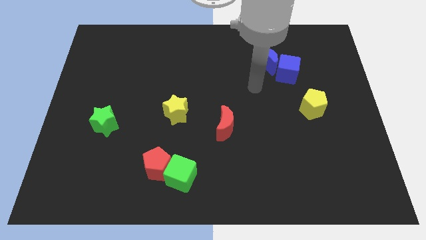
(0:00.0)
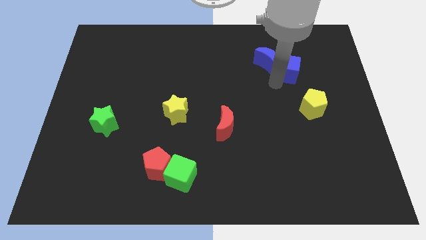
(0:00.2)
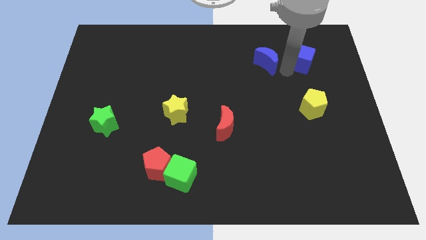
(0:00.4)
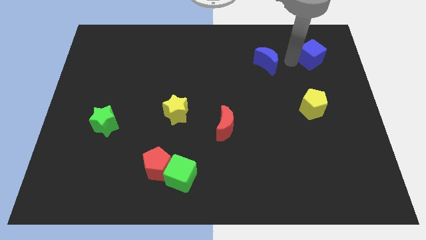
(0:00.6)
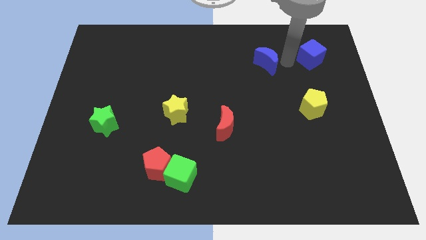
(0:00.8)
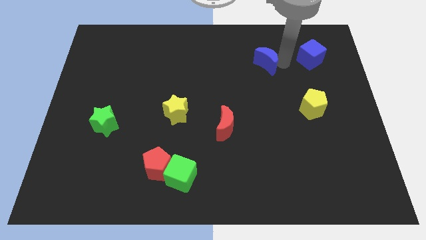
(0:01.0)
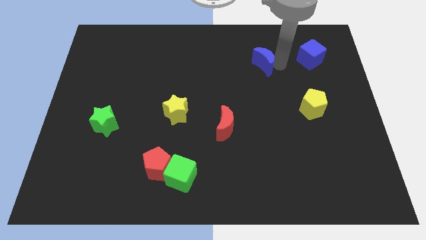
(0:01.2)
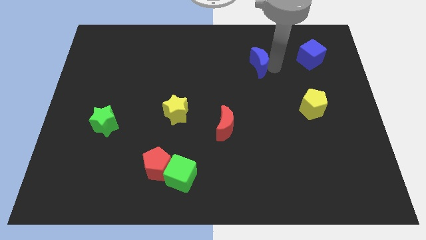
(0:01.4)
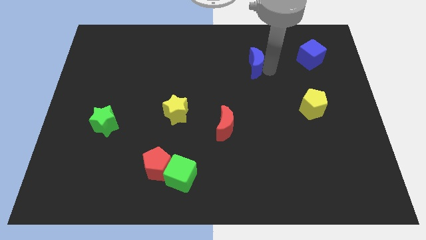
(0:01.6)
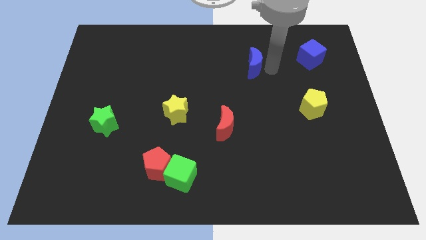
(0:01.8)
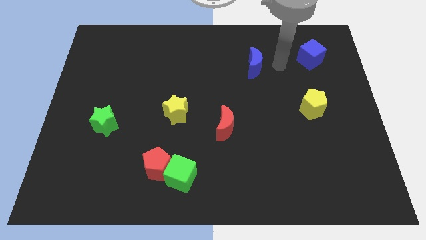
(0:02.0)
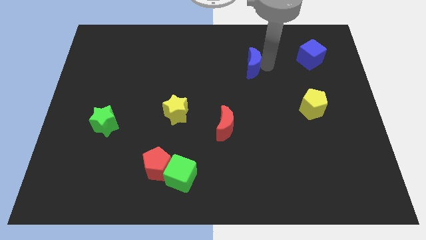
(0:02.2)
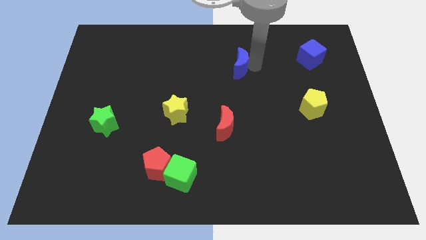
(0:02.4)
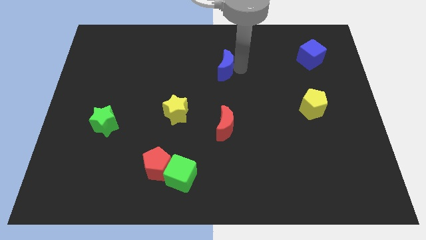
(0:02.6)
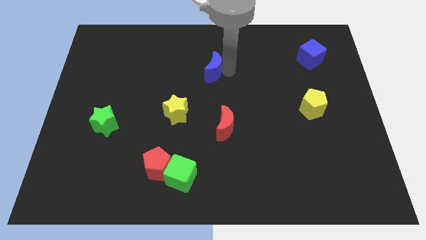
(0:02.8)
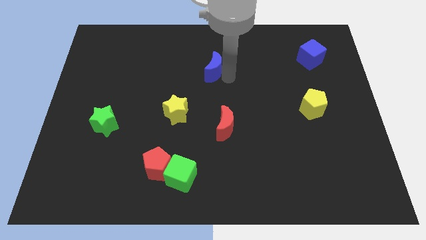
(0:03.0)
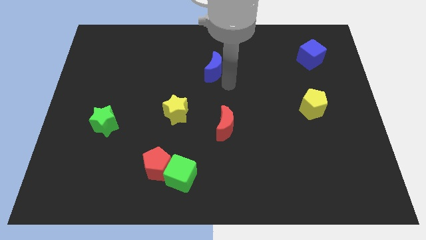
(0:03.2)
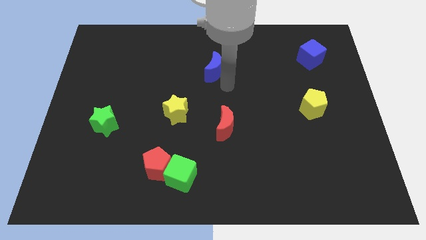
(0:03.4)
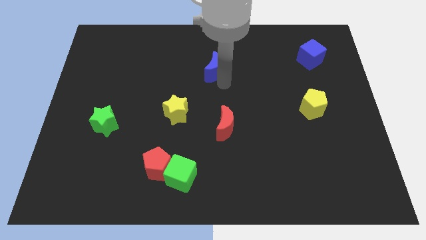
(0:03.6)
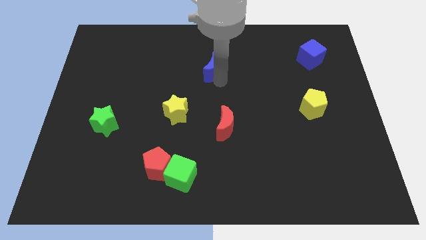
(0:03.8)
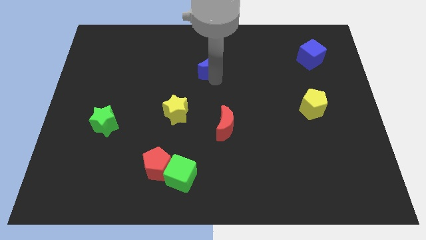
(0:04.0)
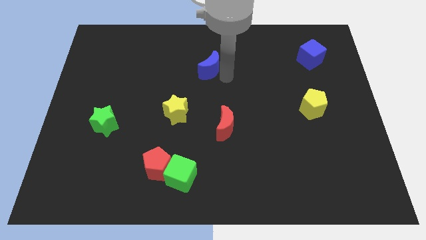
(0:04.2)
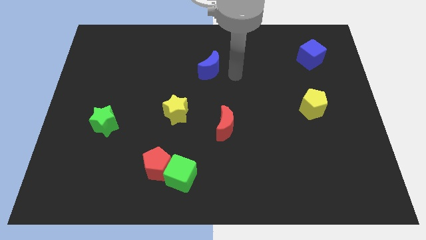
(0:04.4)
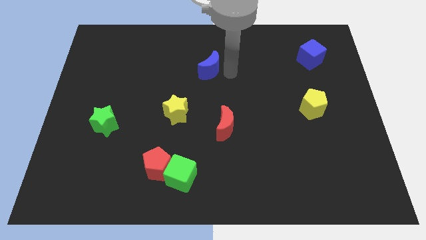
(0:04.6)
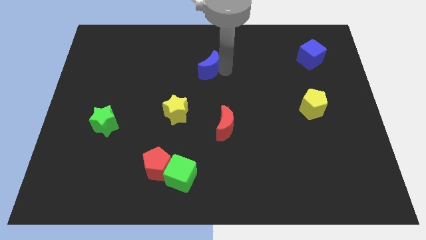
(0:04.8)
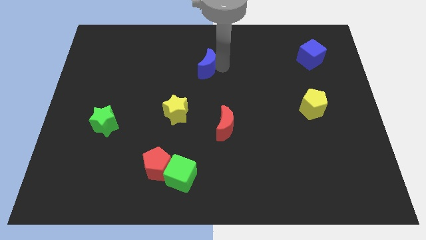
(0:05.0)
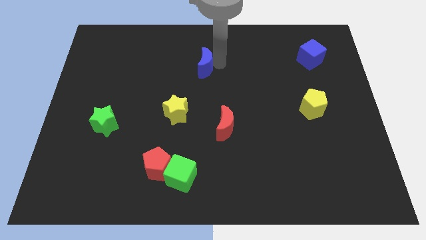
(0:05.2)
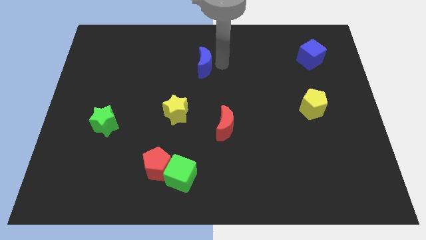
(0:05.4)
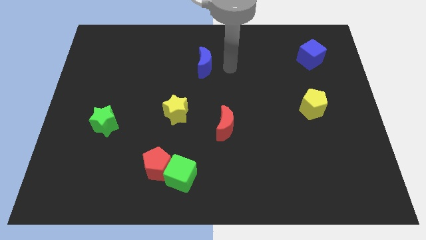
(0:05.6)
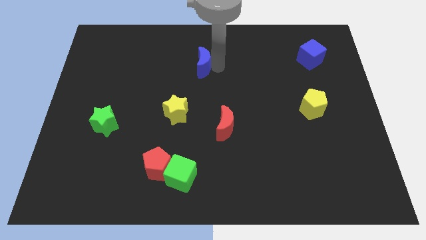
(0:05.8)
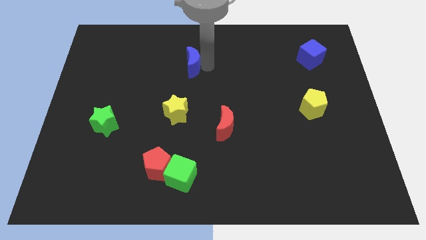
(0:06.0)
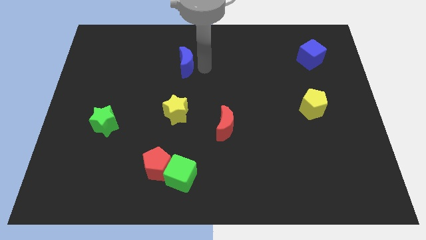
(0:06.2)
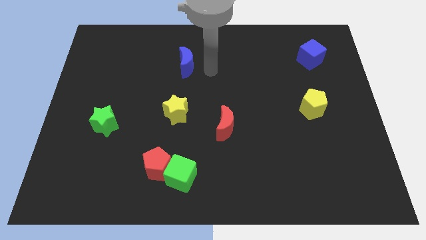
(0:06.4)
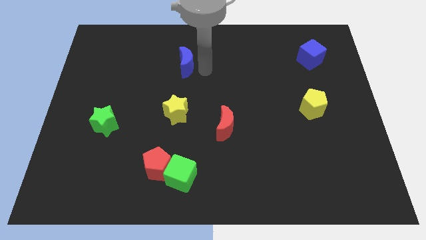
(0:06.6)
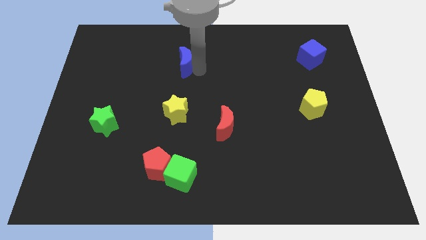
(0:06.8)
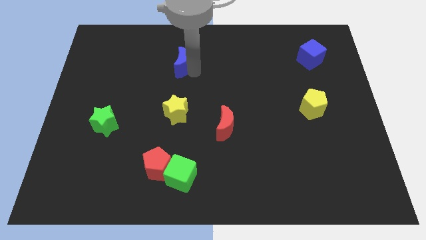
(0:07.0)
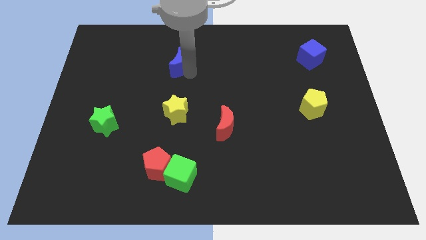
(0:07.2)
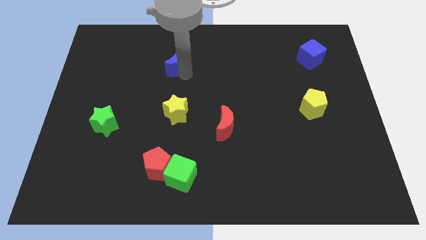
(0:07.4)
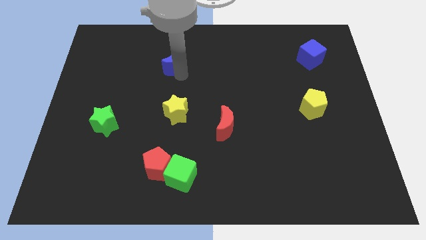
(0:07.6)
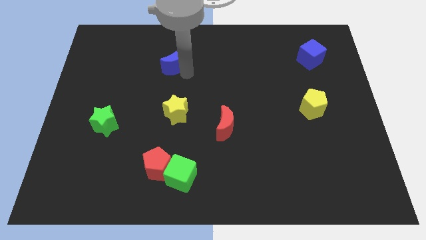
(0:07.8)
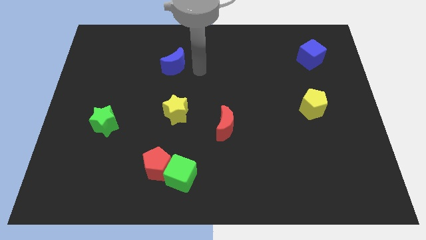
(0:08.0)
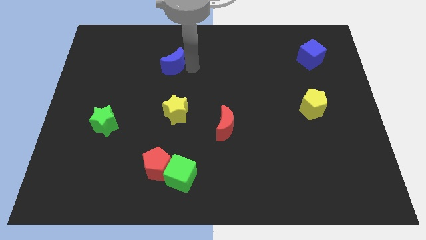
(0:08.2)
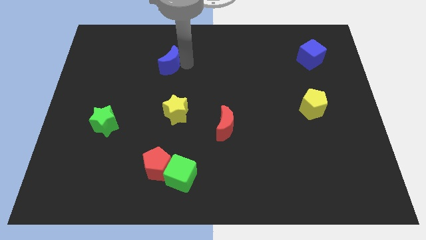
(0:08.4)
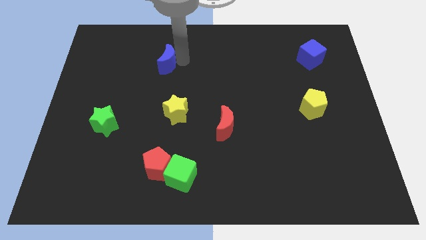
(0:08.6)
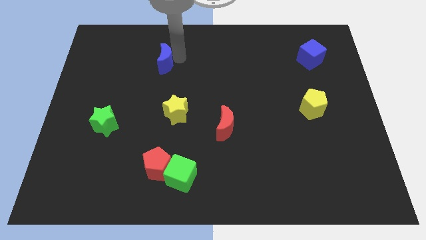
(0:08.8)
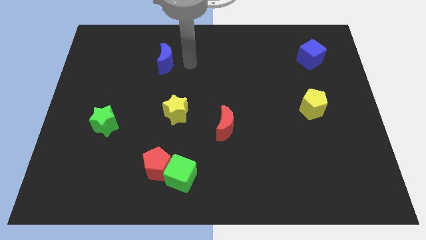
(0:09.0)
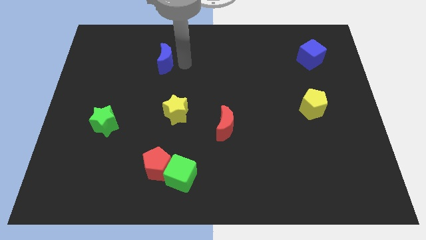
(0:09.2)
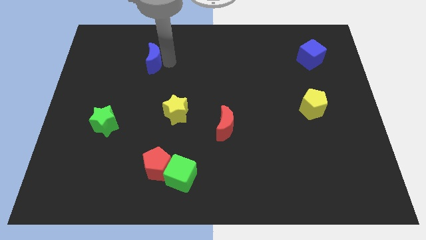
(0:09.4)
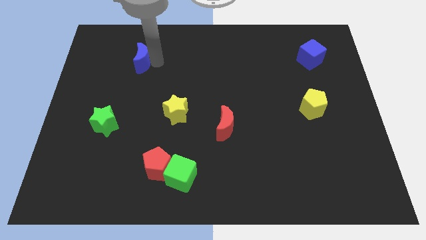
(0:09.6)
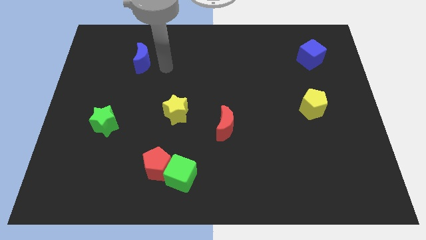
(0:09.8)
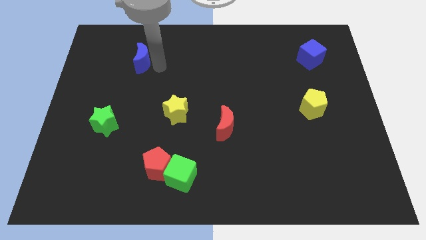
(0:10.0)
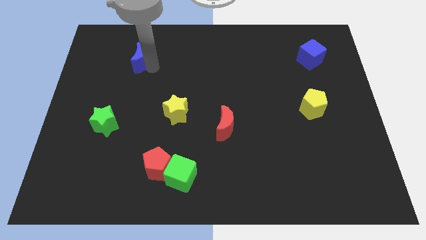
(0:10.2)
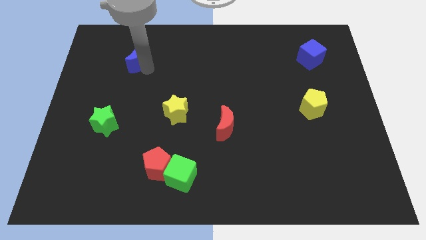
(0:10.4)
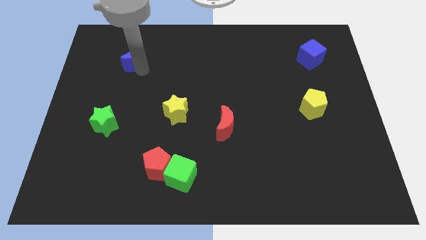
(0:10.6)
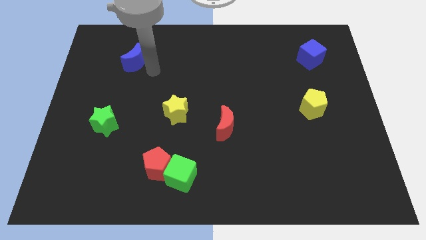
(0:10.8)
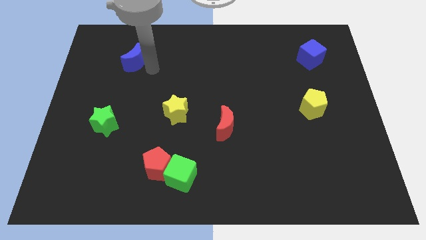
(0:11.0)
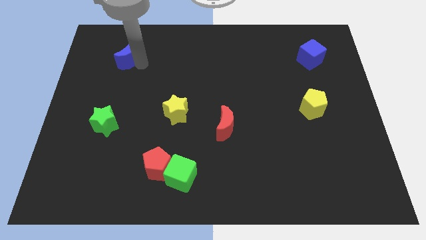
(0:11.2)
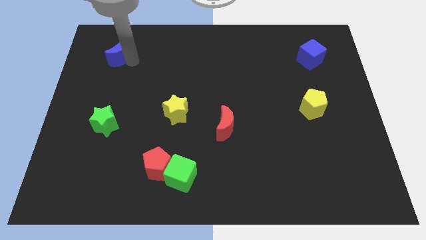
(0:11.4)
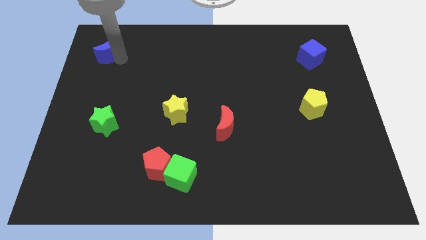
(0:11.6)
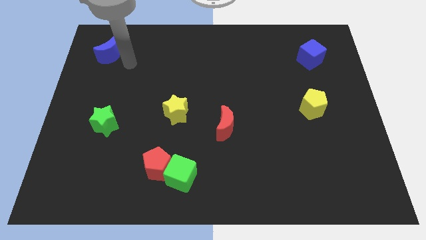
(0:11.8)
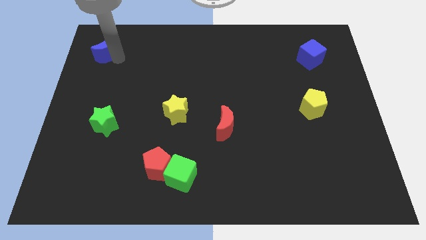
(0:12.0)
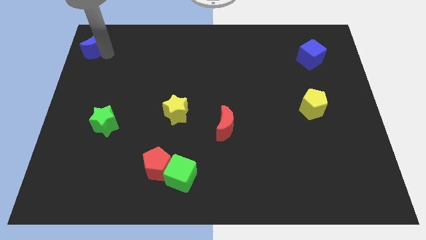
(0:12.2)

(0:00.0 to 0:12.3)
move the blue moon to the top left of the board

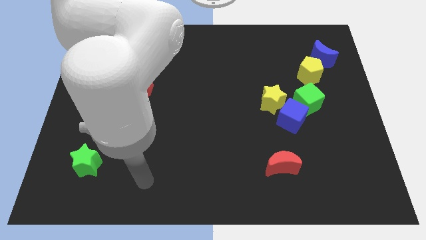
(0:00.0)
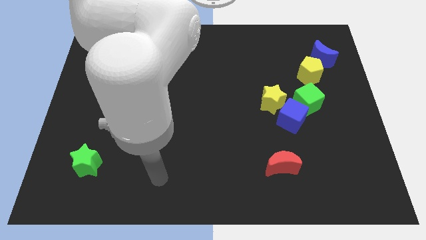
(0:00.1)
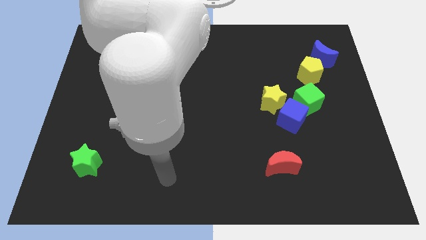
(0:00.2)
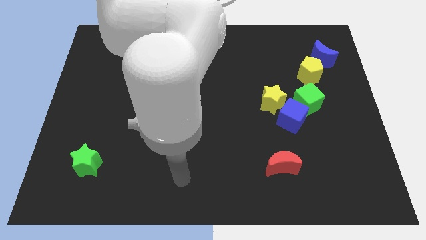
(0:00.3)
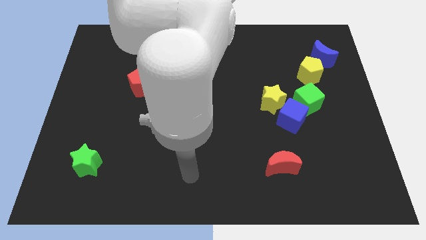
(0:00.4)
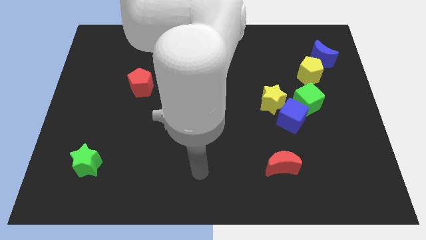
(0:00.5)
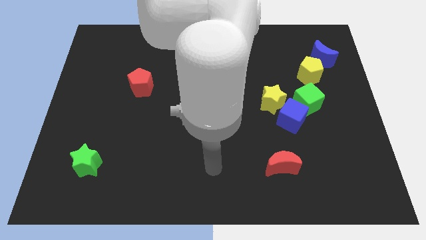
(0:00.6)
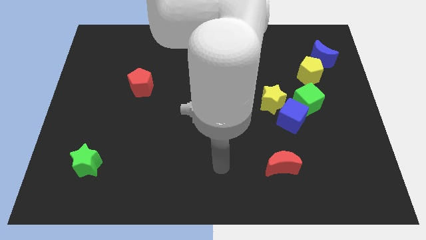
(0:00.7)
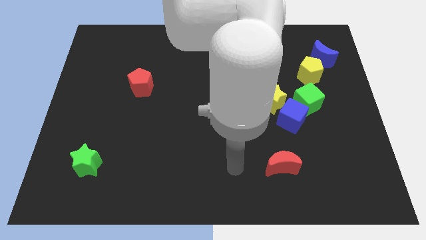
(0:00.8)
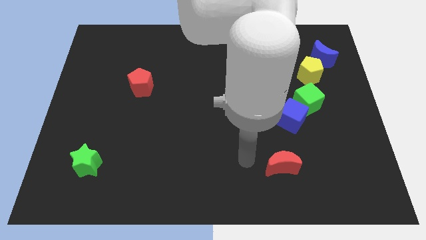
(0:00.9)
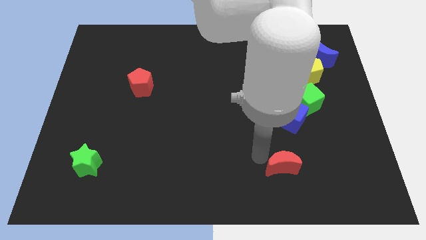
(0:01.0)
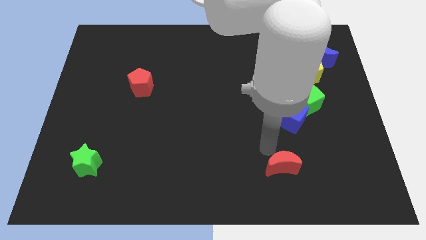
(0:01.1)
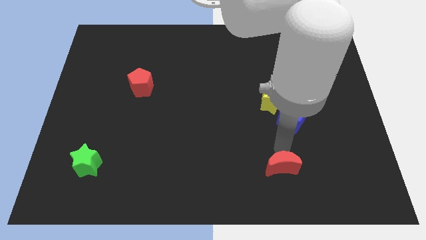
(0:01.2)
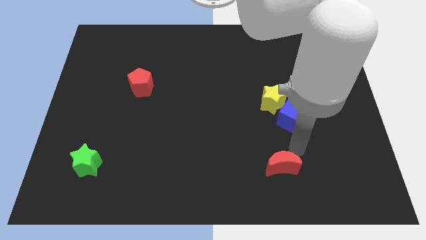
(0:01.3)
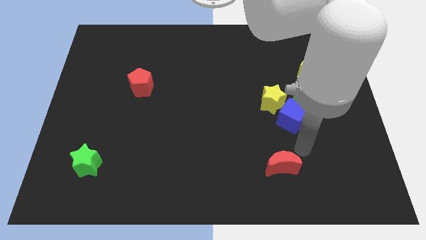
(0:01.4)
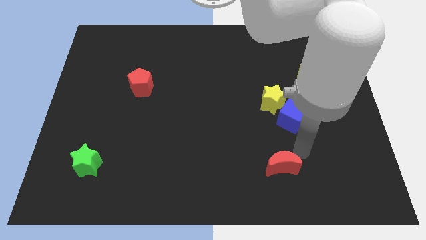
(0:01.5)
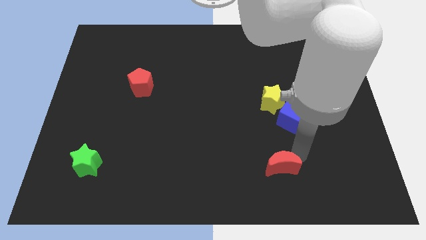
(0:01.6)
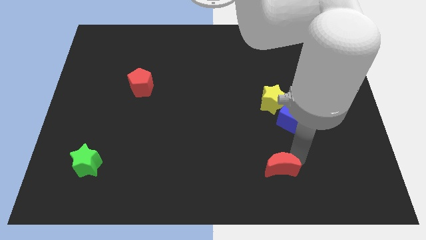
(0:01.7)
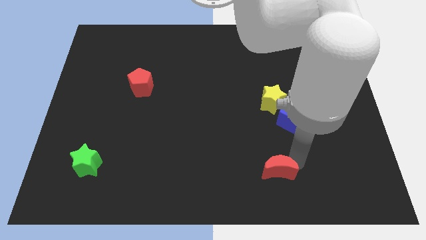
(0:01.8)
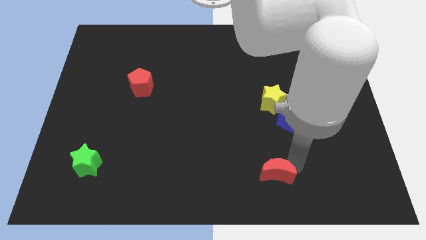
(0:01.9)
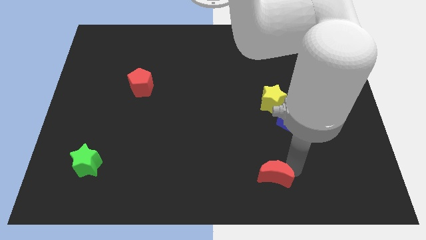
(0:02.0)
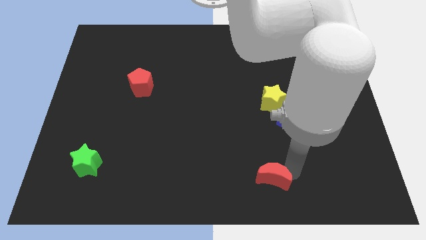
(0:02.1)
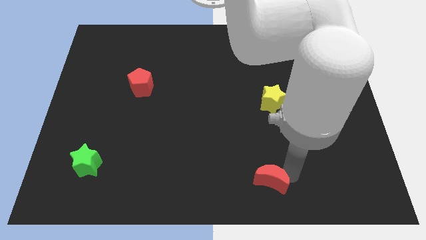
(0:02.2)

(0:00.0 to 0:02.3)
move the red moon to the bottom side
